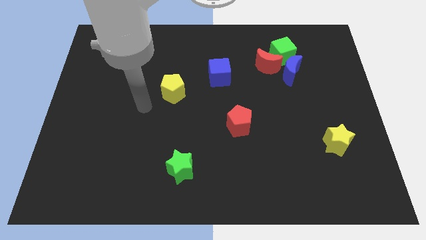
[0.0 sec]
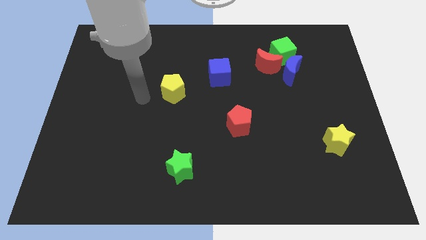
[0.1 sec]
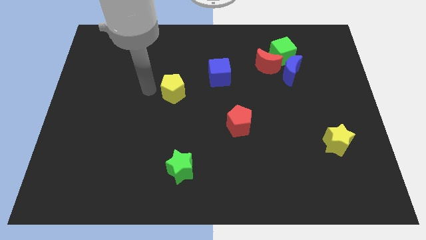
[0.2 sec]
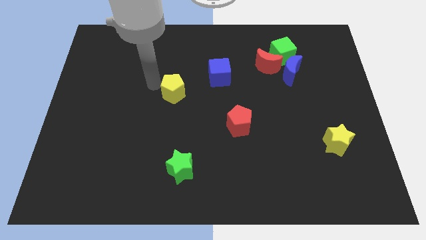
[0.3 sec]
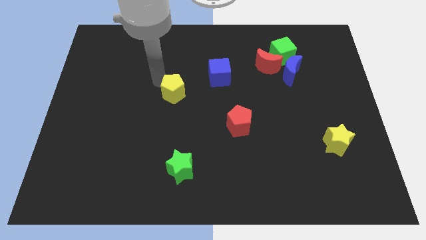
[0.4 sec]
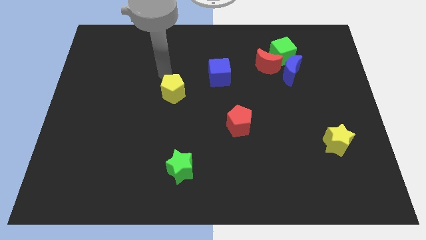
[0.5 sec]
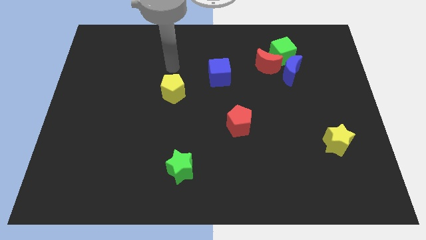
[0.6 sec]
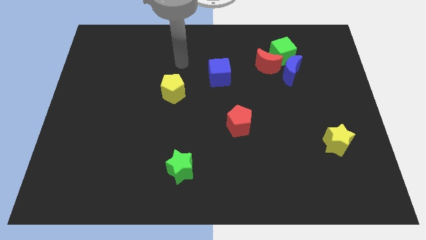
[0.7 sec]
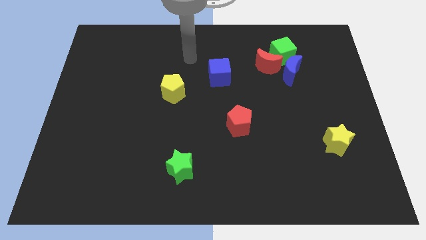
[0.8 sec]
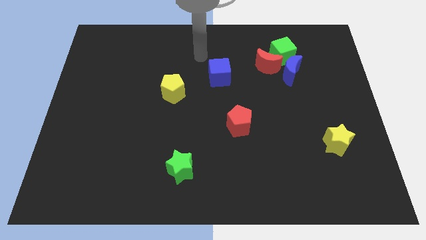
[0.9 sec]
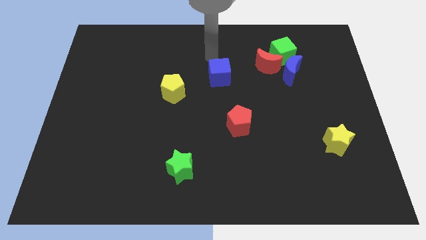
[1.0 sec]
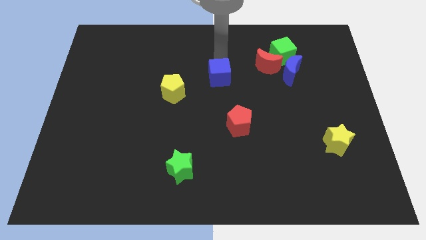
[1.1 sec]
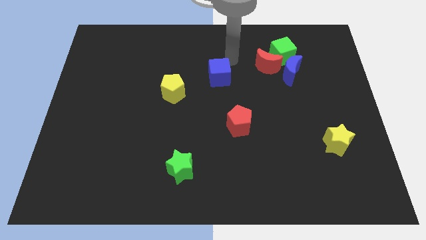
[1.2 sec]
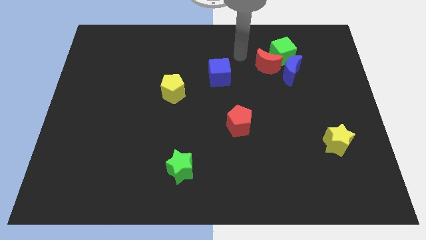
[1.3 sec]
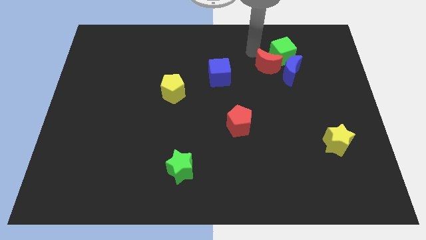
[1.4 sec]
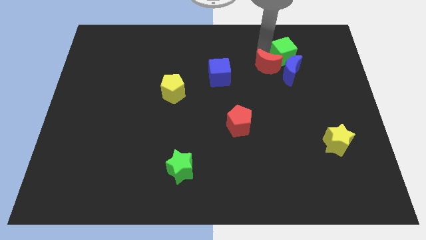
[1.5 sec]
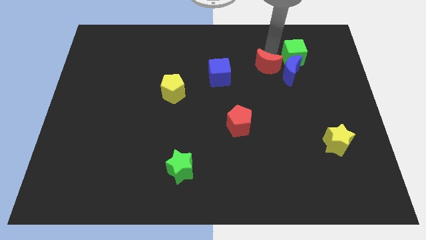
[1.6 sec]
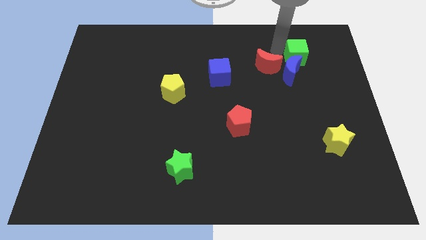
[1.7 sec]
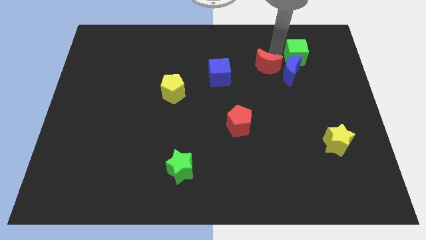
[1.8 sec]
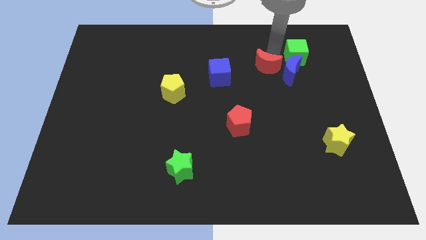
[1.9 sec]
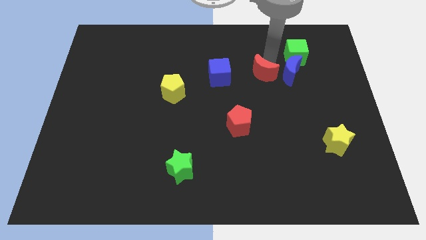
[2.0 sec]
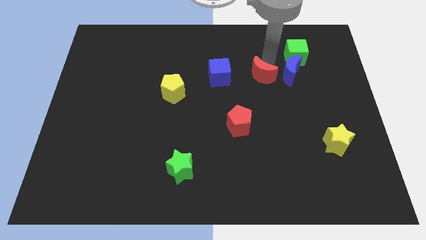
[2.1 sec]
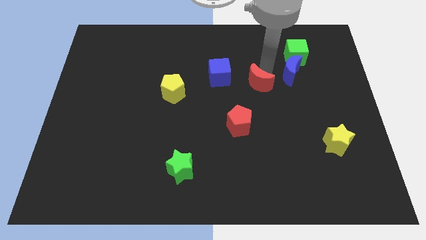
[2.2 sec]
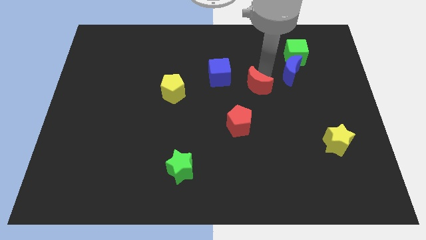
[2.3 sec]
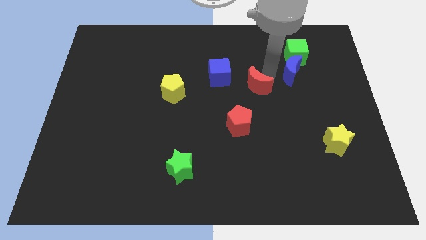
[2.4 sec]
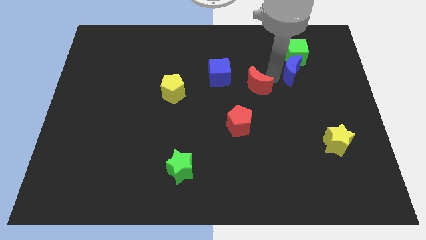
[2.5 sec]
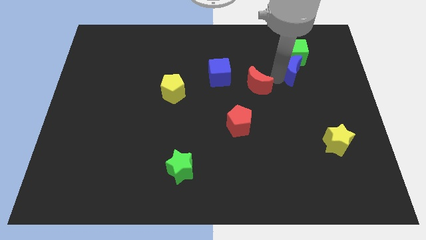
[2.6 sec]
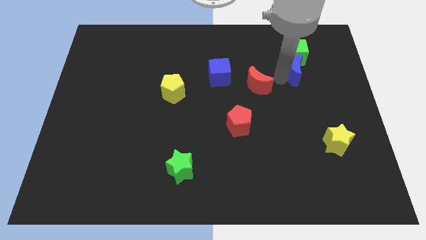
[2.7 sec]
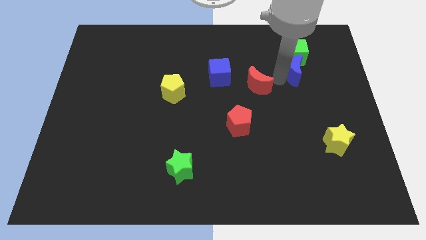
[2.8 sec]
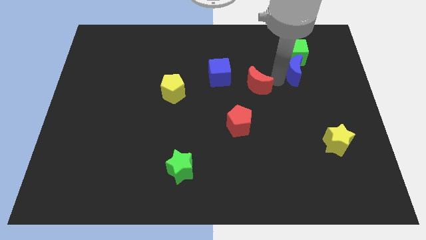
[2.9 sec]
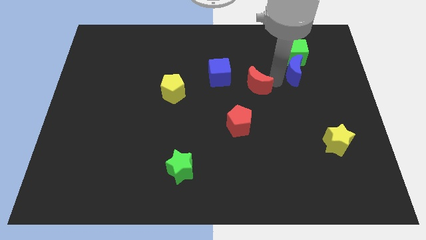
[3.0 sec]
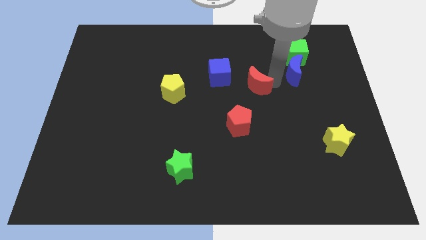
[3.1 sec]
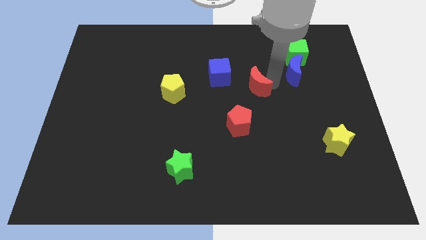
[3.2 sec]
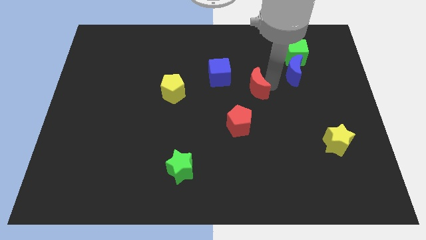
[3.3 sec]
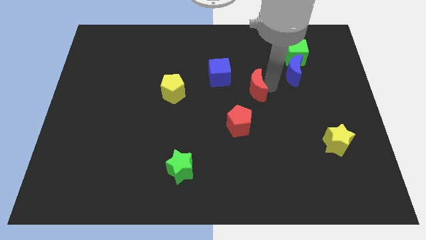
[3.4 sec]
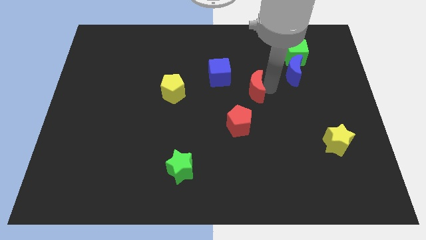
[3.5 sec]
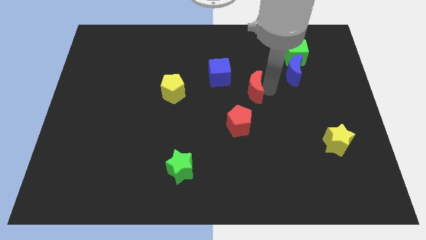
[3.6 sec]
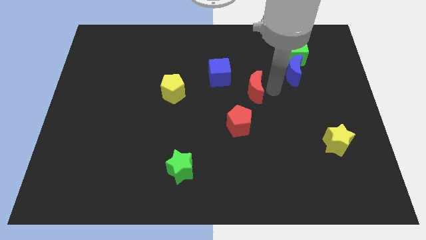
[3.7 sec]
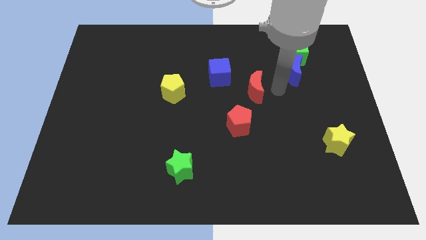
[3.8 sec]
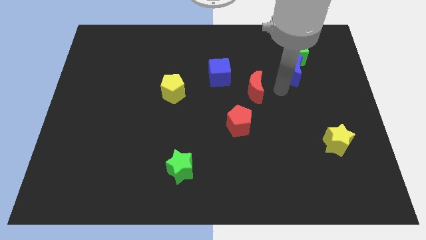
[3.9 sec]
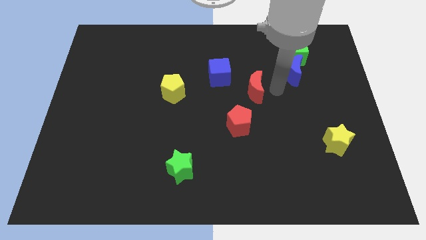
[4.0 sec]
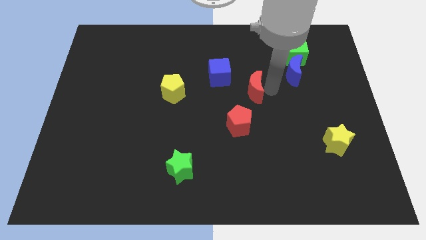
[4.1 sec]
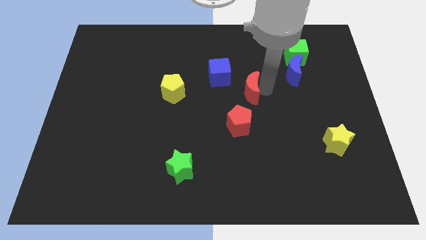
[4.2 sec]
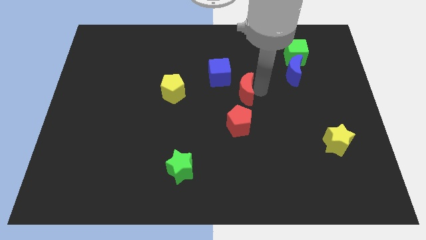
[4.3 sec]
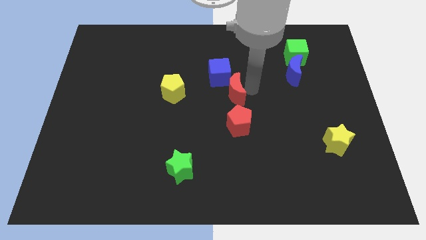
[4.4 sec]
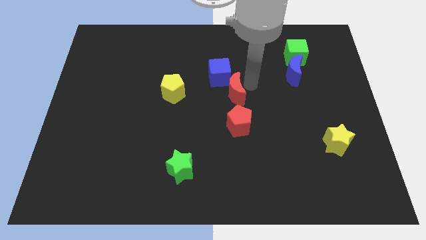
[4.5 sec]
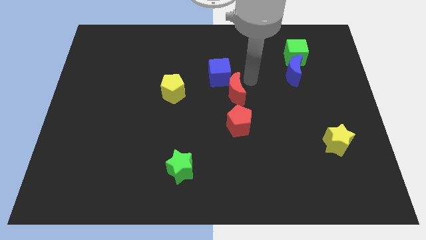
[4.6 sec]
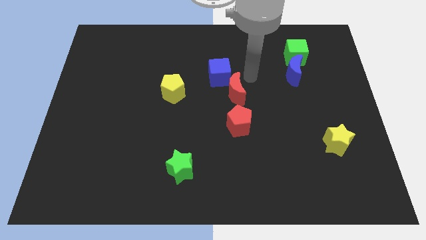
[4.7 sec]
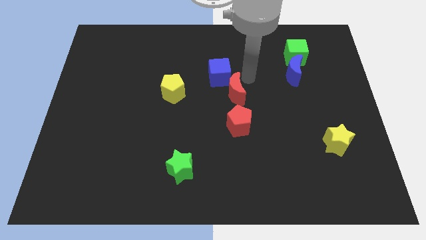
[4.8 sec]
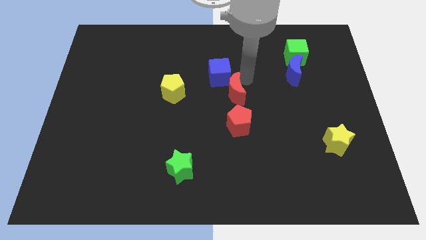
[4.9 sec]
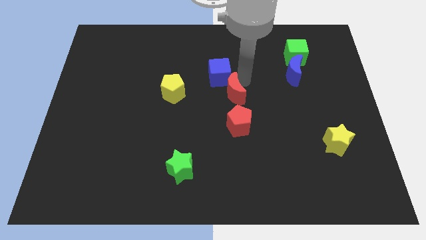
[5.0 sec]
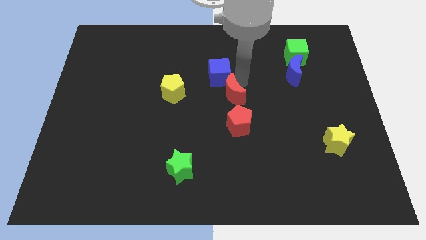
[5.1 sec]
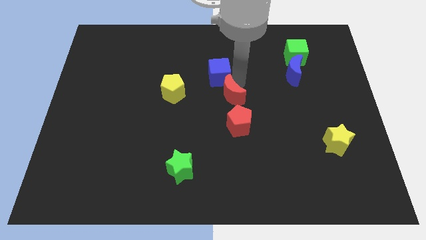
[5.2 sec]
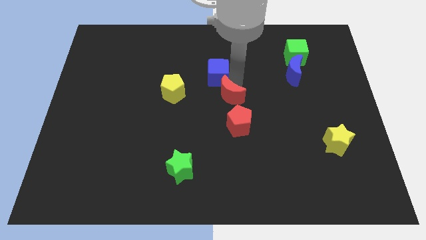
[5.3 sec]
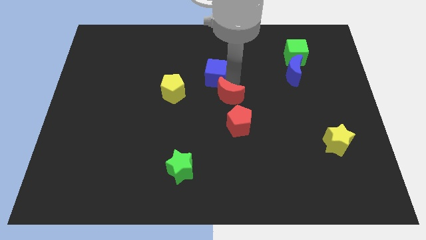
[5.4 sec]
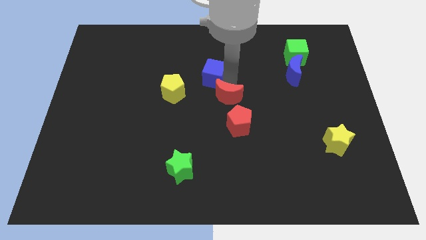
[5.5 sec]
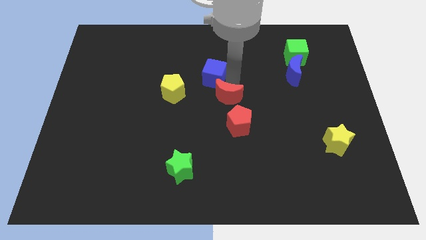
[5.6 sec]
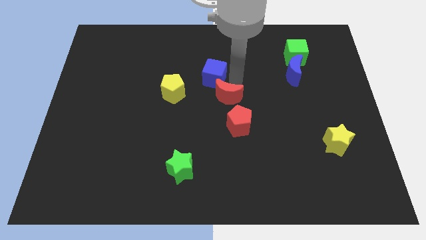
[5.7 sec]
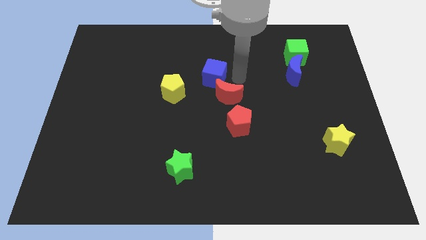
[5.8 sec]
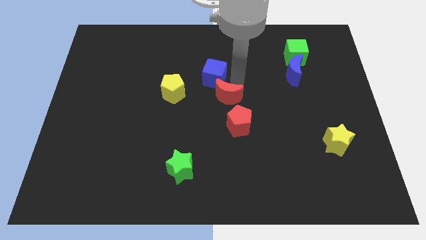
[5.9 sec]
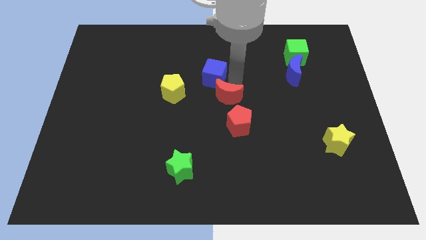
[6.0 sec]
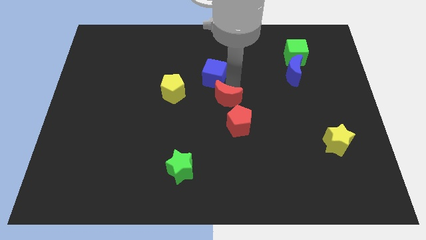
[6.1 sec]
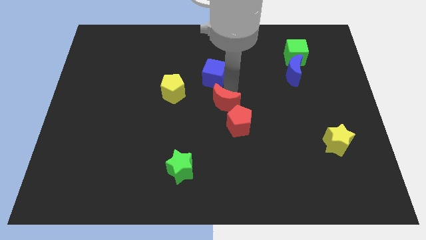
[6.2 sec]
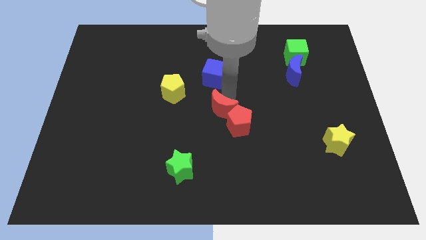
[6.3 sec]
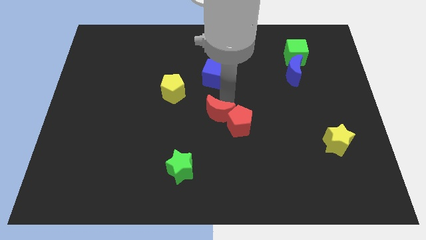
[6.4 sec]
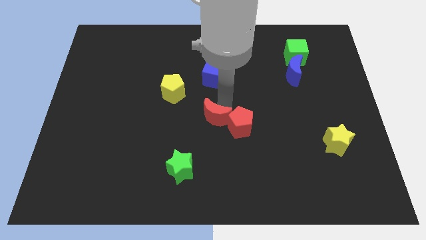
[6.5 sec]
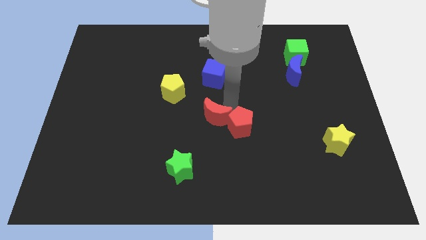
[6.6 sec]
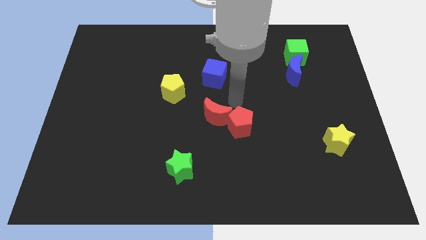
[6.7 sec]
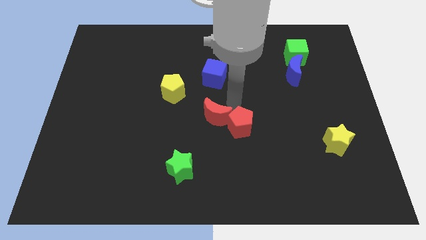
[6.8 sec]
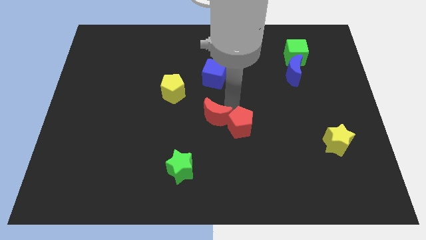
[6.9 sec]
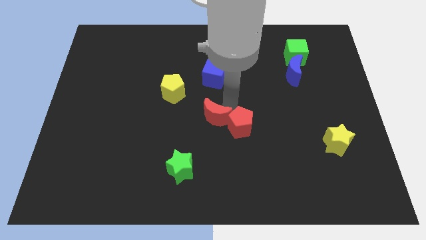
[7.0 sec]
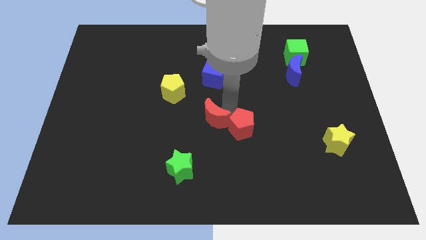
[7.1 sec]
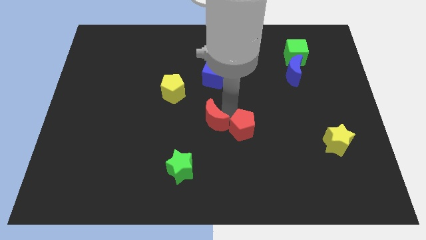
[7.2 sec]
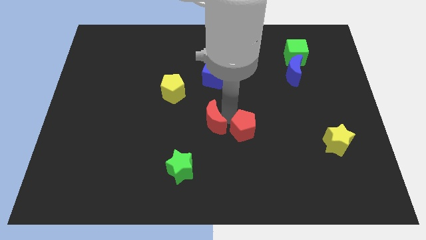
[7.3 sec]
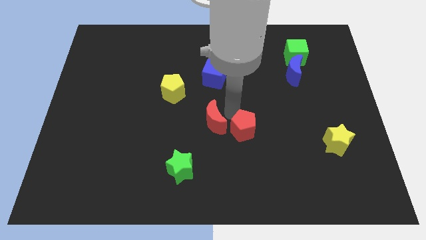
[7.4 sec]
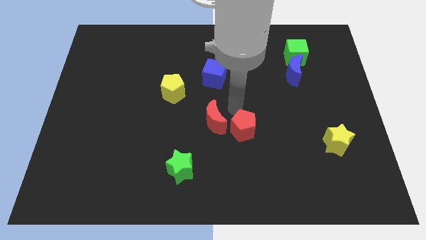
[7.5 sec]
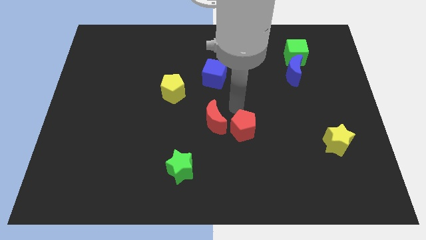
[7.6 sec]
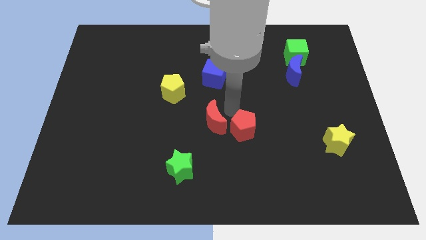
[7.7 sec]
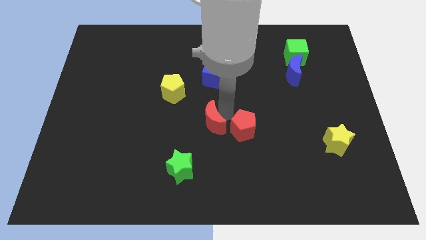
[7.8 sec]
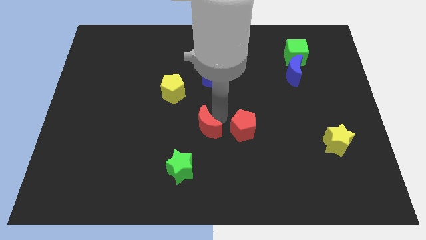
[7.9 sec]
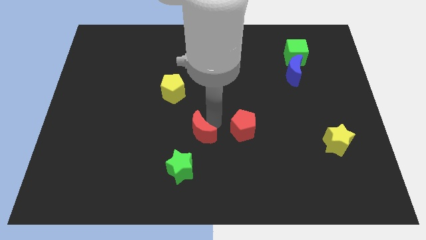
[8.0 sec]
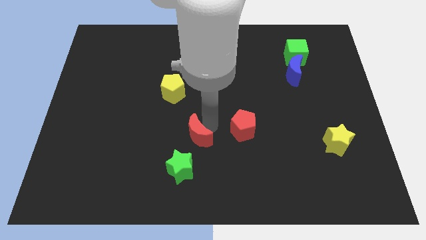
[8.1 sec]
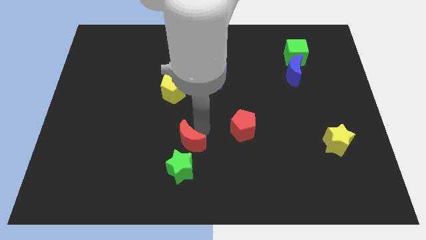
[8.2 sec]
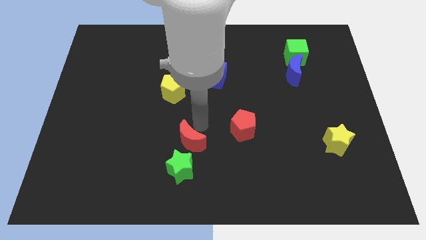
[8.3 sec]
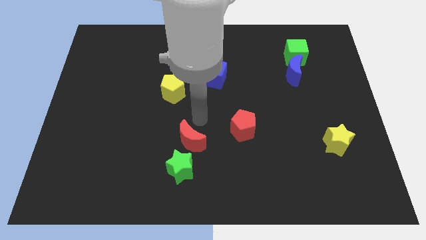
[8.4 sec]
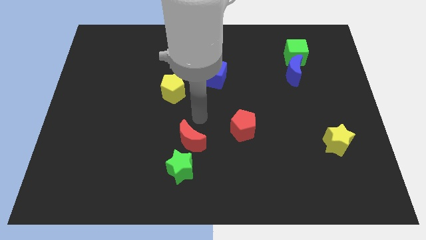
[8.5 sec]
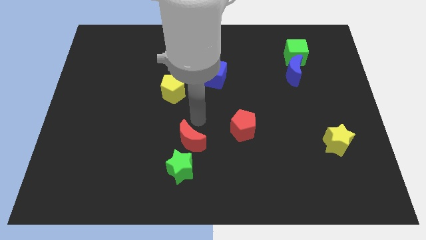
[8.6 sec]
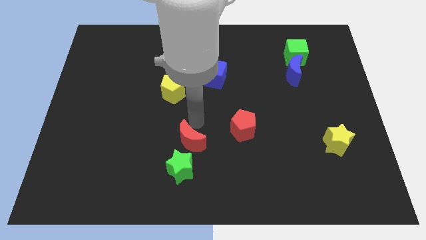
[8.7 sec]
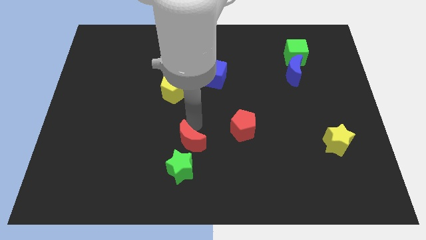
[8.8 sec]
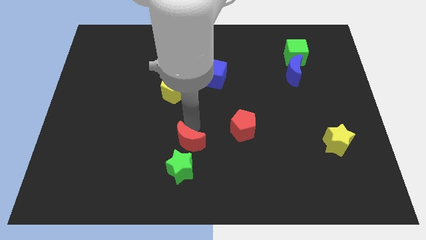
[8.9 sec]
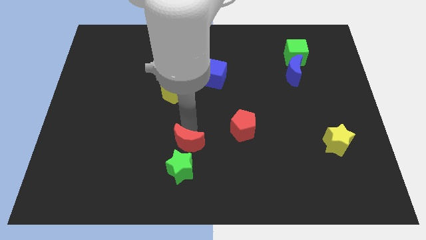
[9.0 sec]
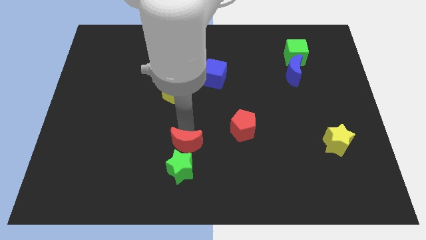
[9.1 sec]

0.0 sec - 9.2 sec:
put the red moon next to the green star
